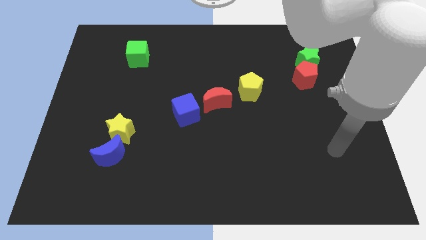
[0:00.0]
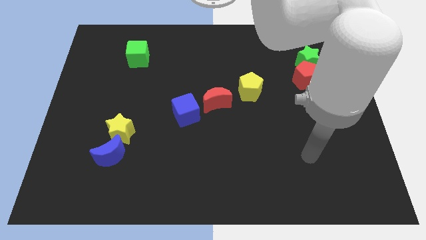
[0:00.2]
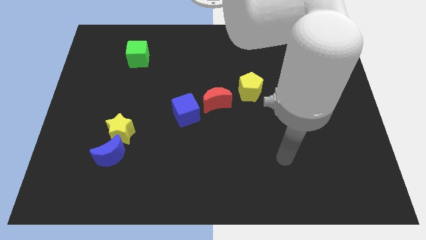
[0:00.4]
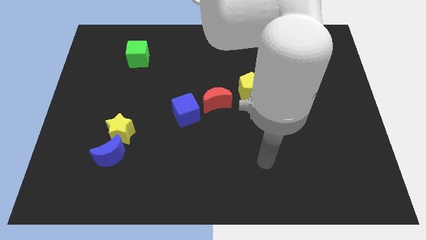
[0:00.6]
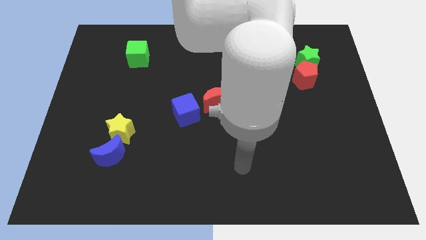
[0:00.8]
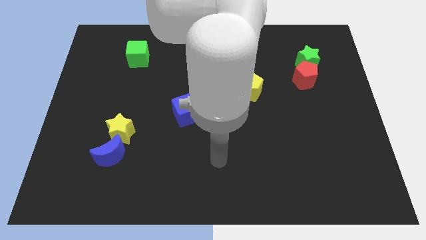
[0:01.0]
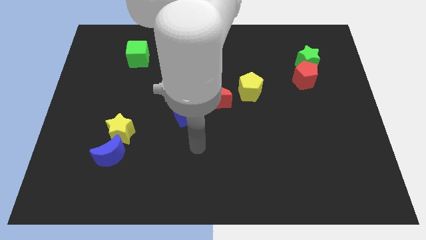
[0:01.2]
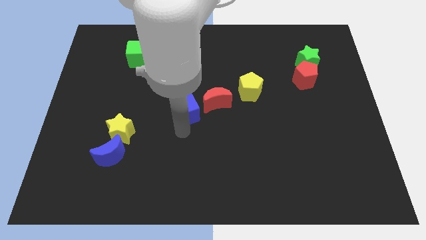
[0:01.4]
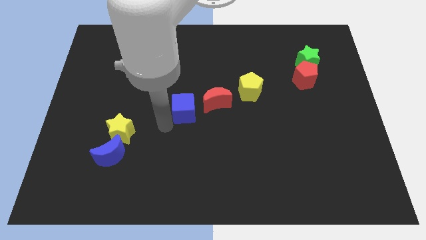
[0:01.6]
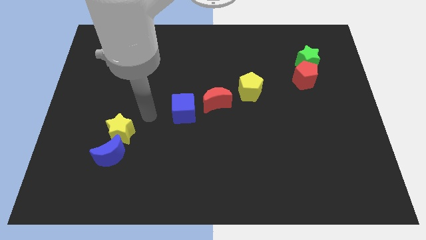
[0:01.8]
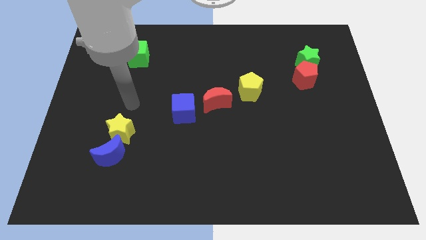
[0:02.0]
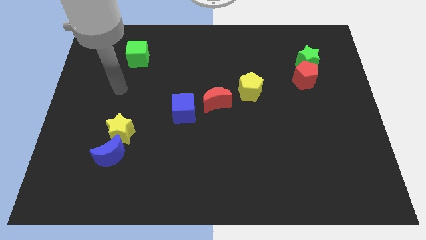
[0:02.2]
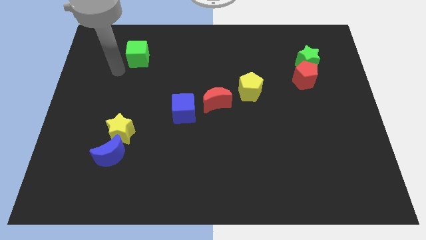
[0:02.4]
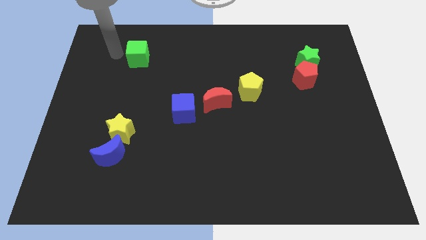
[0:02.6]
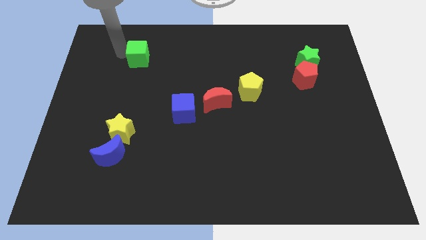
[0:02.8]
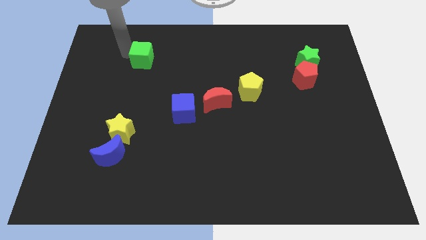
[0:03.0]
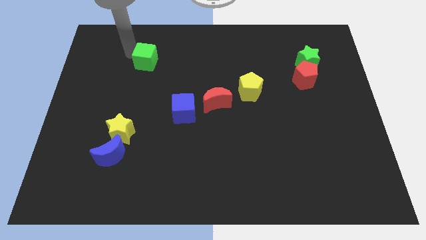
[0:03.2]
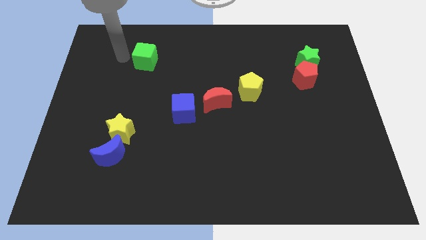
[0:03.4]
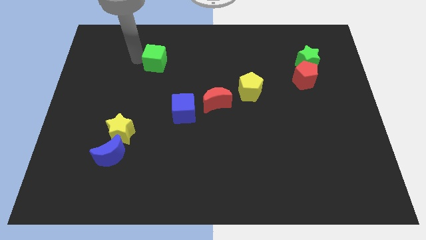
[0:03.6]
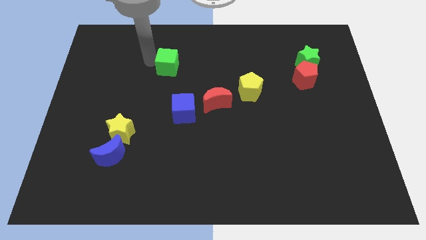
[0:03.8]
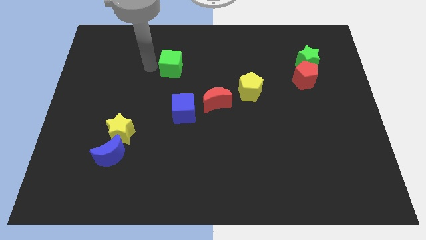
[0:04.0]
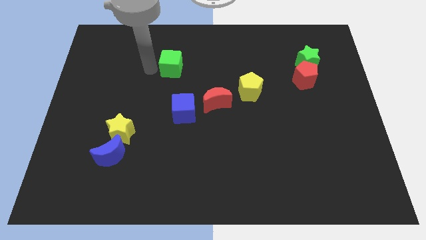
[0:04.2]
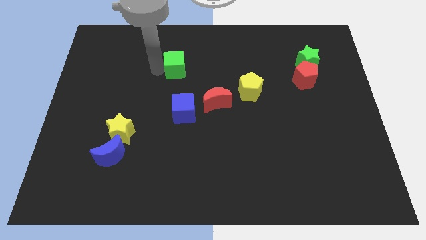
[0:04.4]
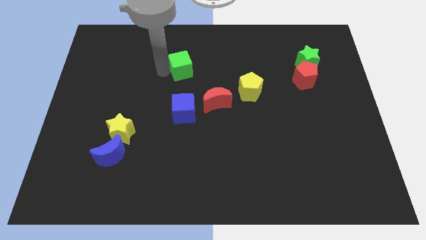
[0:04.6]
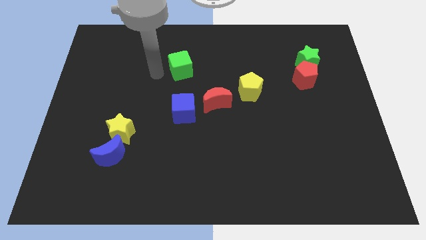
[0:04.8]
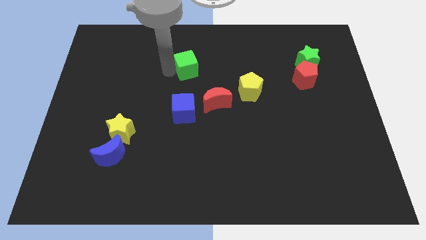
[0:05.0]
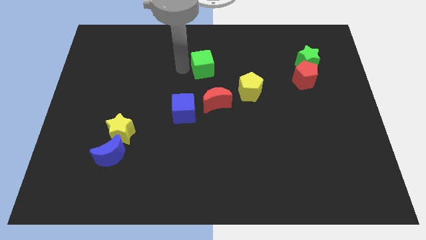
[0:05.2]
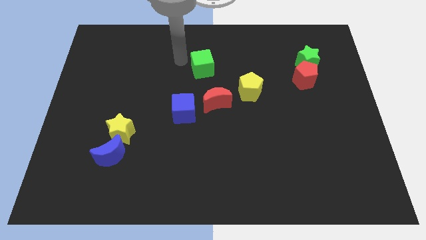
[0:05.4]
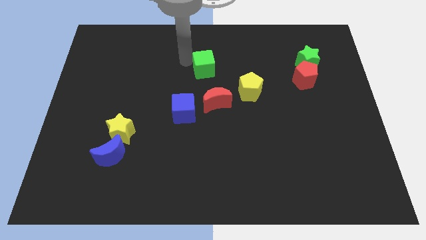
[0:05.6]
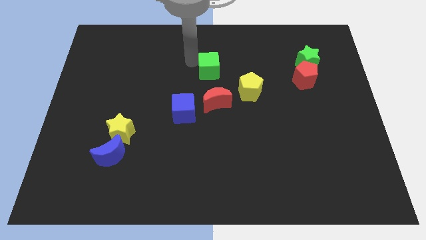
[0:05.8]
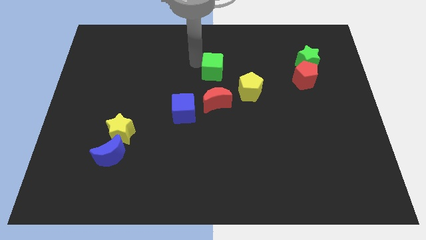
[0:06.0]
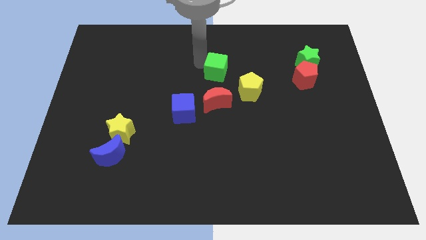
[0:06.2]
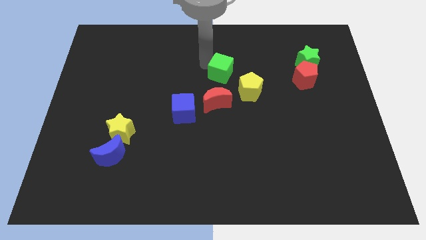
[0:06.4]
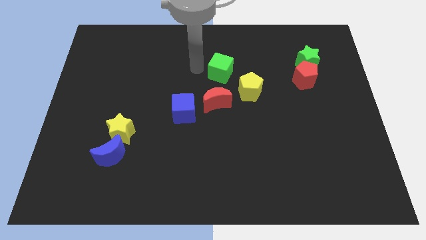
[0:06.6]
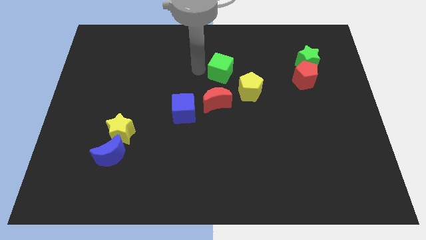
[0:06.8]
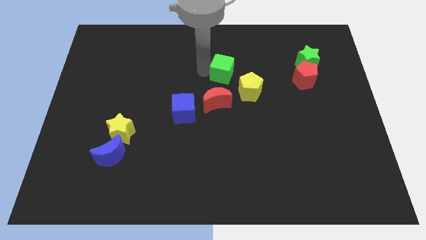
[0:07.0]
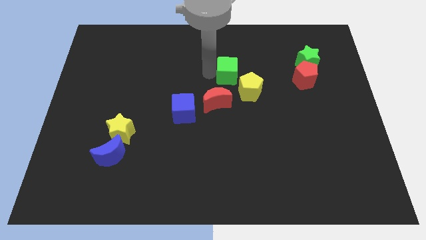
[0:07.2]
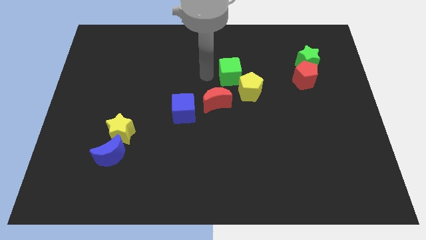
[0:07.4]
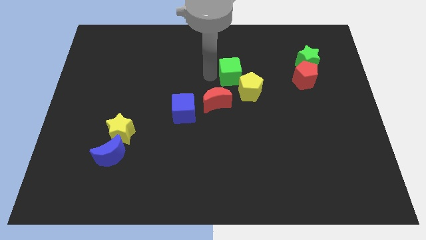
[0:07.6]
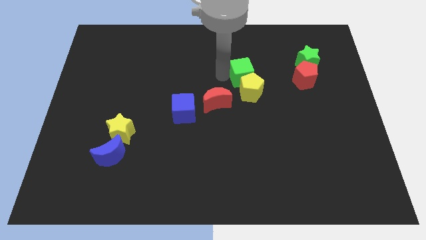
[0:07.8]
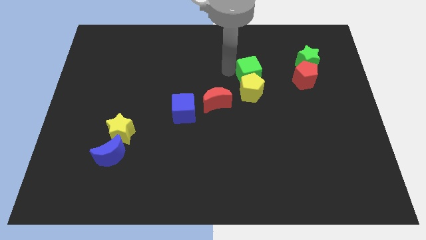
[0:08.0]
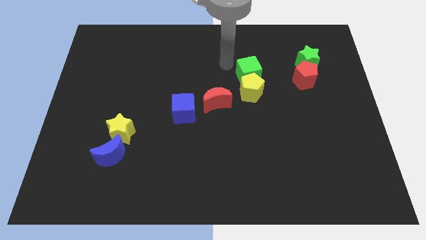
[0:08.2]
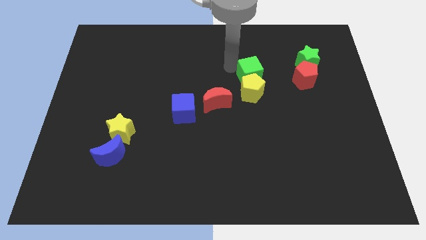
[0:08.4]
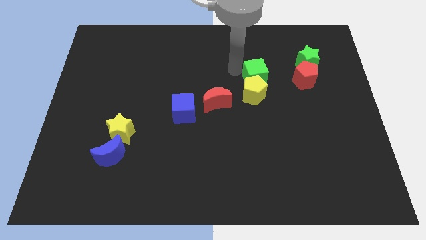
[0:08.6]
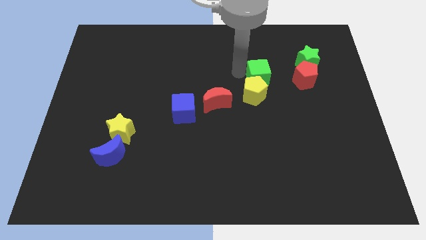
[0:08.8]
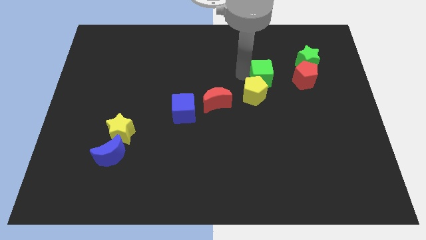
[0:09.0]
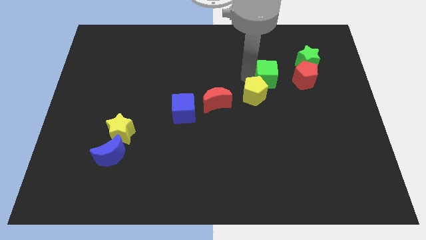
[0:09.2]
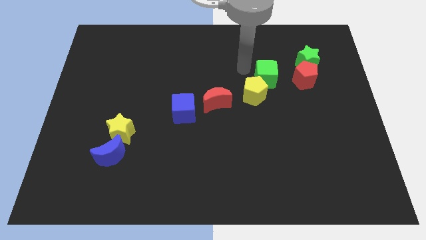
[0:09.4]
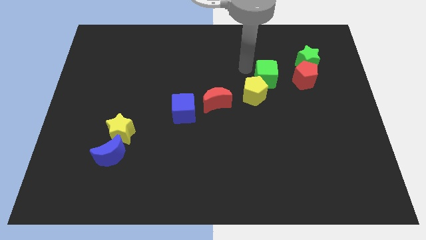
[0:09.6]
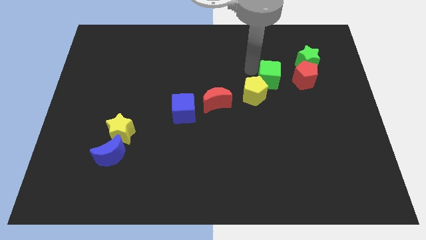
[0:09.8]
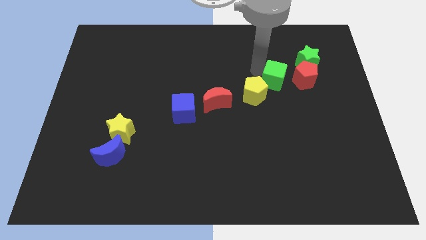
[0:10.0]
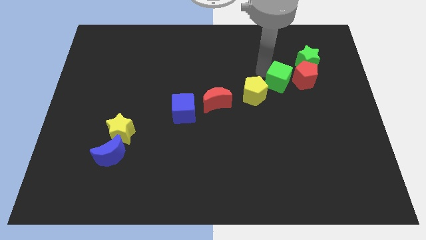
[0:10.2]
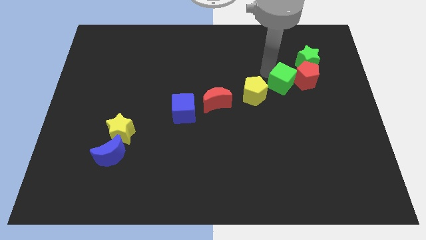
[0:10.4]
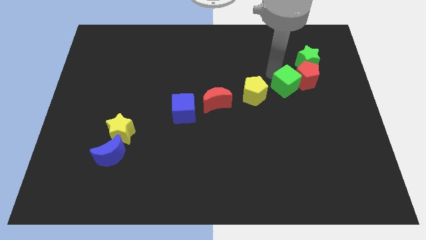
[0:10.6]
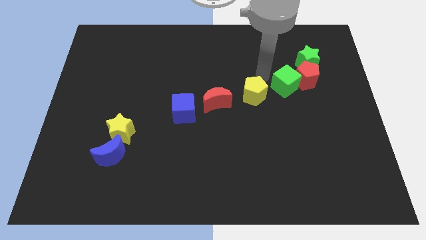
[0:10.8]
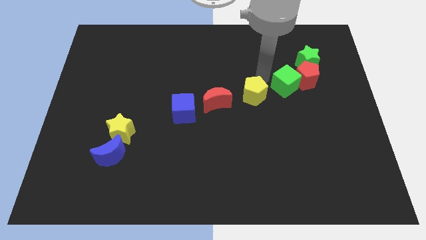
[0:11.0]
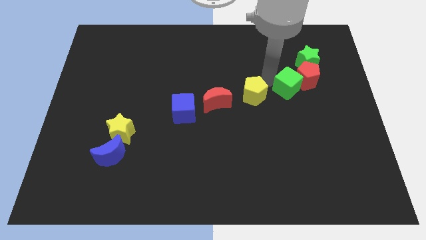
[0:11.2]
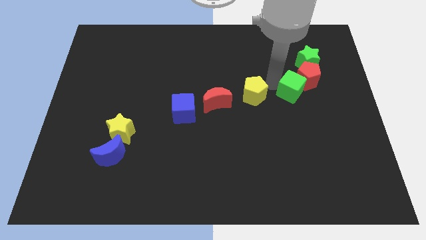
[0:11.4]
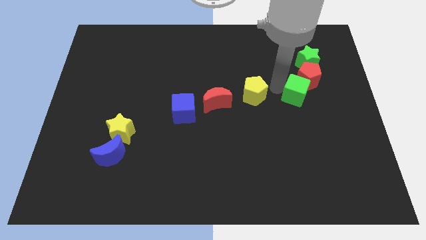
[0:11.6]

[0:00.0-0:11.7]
push the green cube to the bottom of the green star

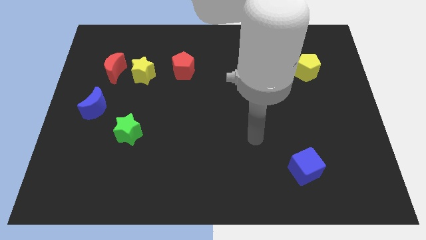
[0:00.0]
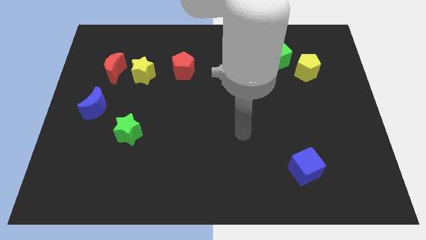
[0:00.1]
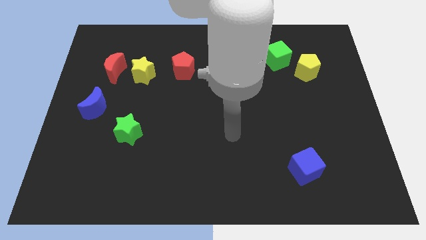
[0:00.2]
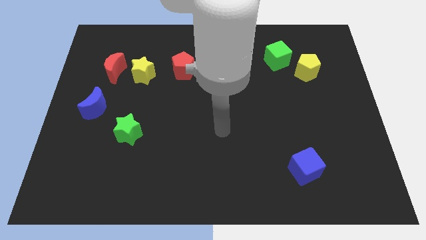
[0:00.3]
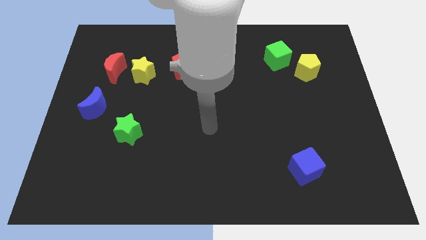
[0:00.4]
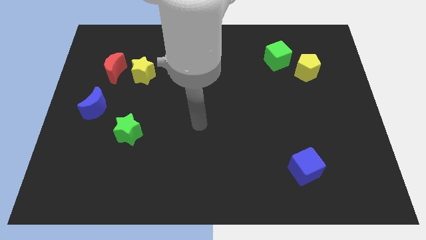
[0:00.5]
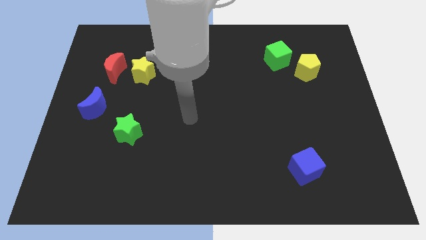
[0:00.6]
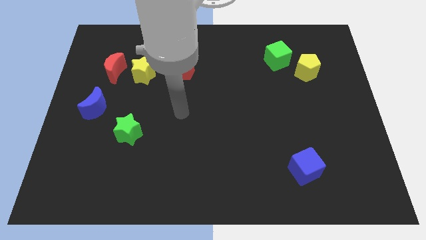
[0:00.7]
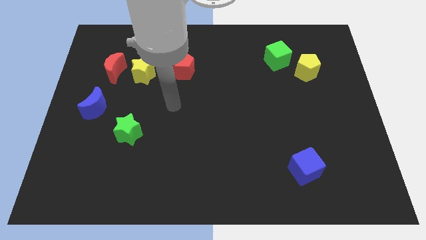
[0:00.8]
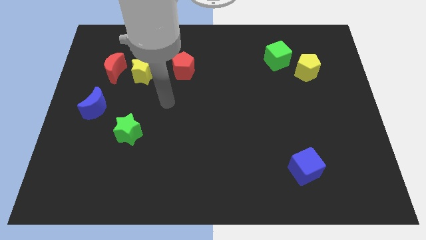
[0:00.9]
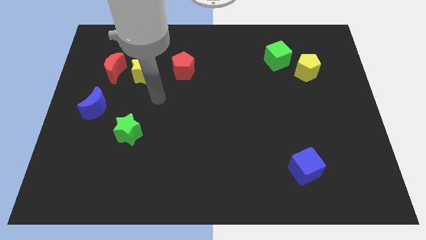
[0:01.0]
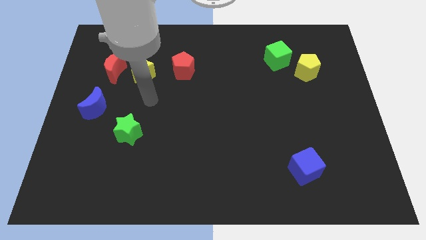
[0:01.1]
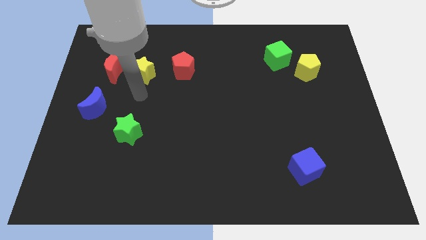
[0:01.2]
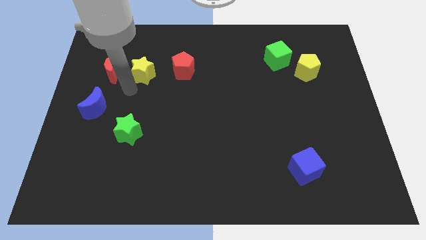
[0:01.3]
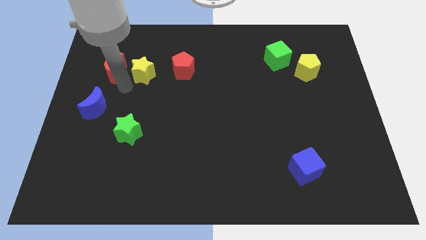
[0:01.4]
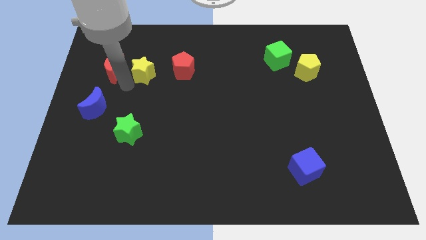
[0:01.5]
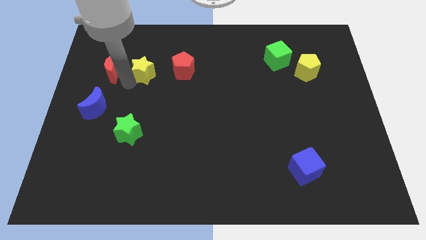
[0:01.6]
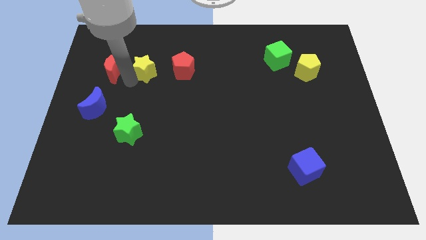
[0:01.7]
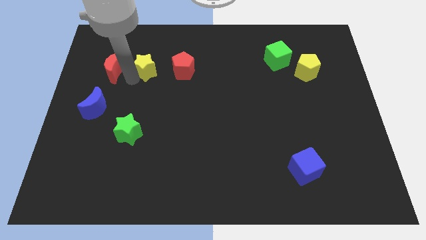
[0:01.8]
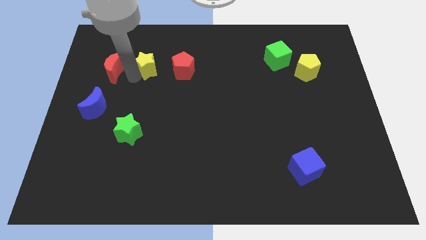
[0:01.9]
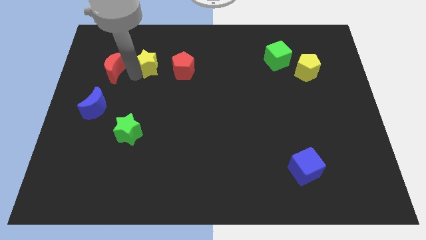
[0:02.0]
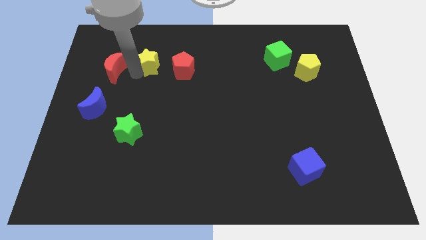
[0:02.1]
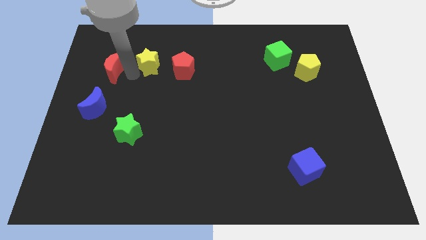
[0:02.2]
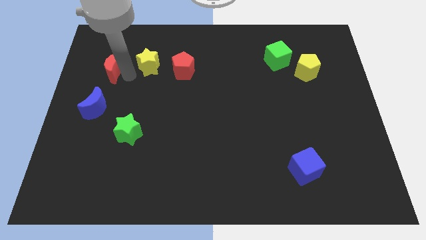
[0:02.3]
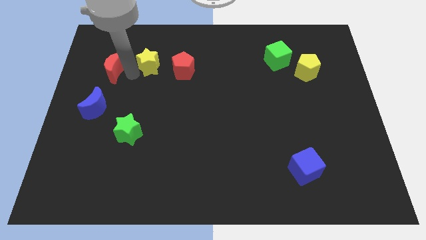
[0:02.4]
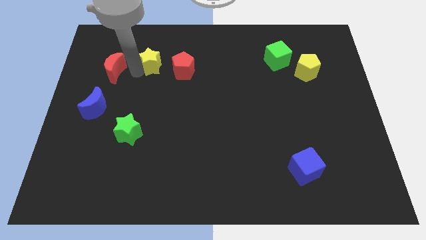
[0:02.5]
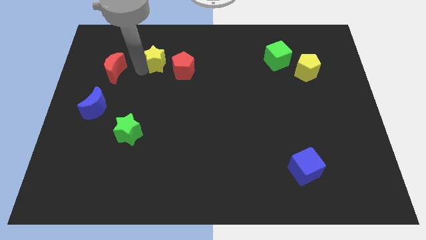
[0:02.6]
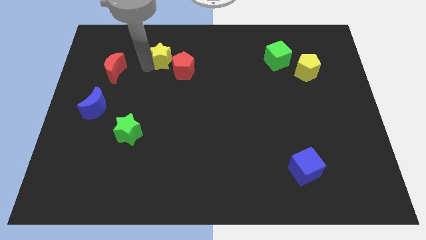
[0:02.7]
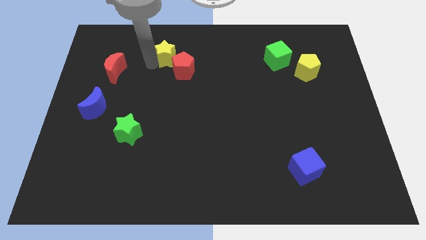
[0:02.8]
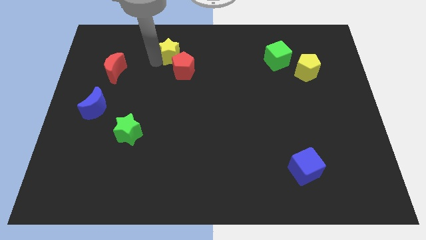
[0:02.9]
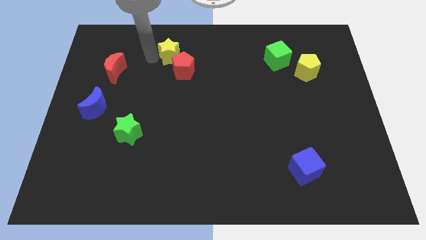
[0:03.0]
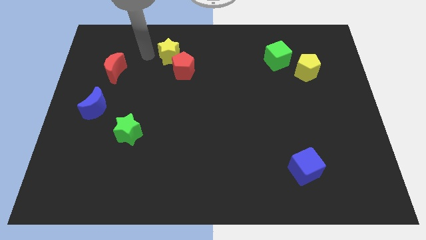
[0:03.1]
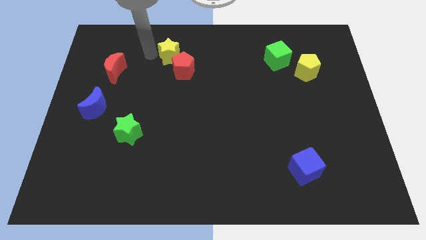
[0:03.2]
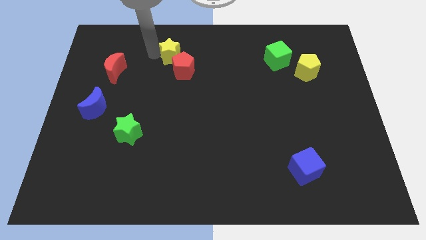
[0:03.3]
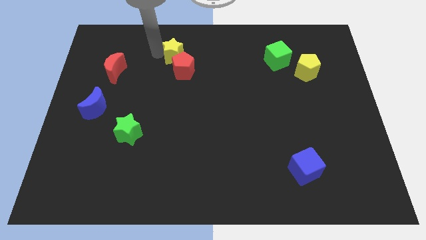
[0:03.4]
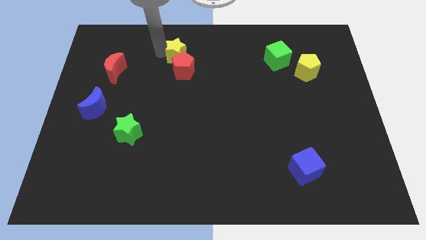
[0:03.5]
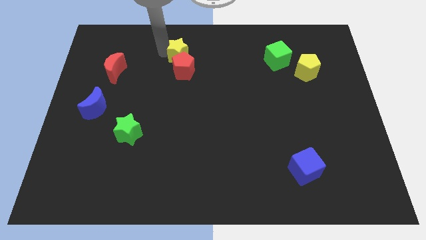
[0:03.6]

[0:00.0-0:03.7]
push the yellow star to the top right of the red pentagon
